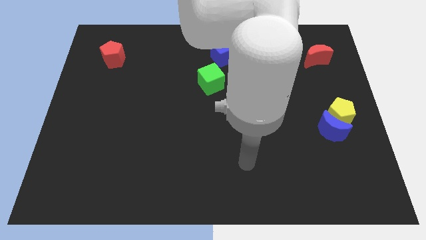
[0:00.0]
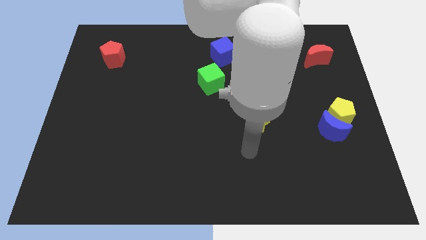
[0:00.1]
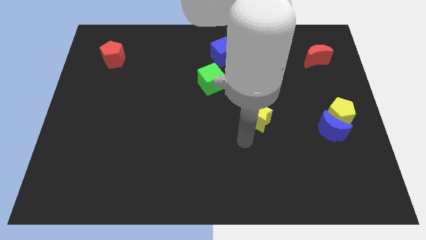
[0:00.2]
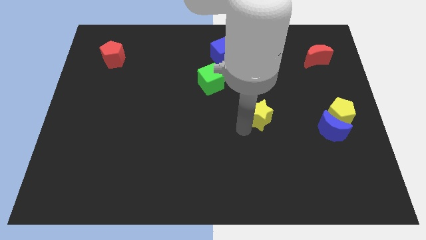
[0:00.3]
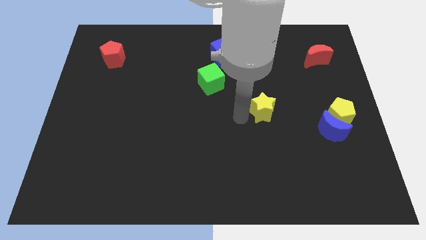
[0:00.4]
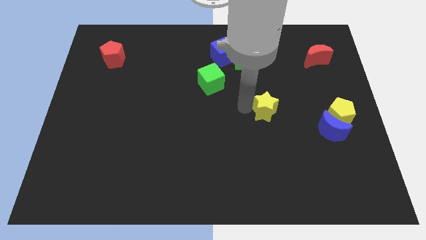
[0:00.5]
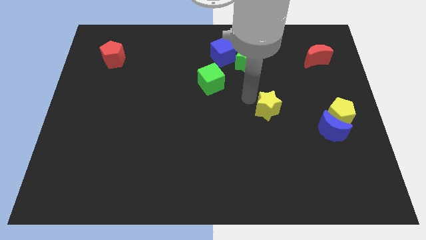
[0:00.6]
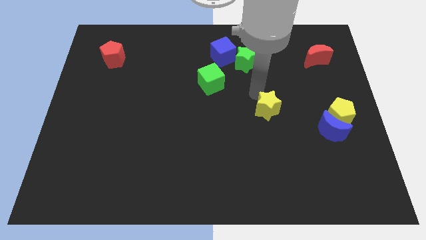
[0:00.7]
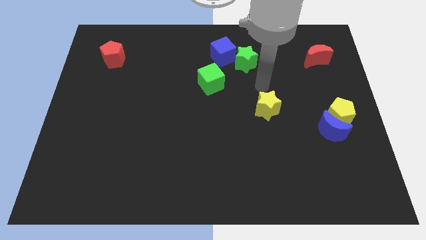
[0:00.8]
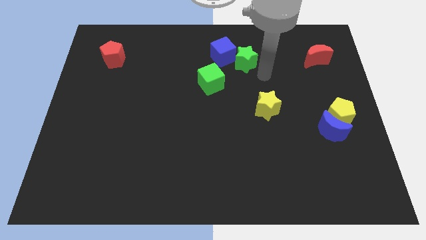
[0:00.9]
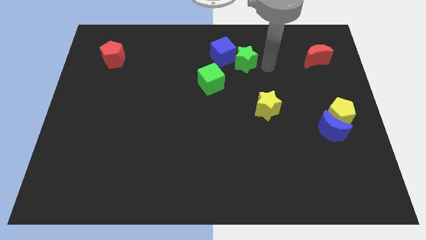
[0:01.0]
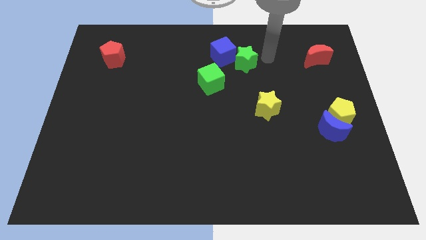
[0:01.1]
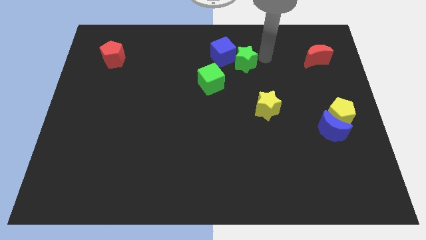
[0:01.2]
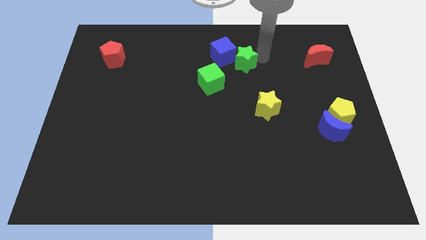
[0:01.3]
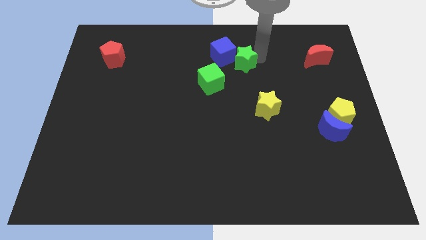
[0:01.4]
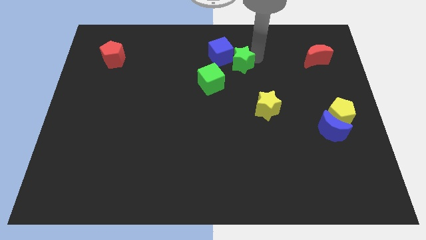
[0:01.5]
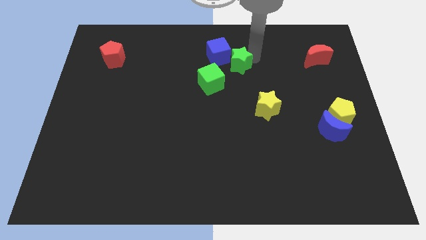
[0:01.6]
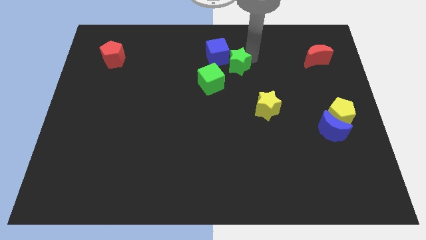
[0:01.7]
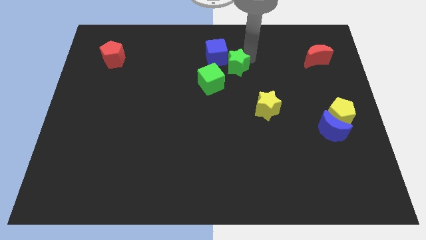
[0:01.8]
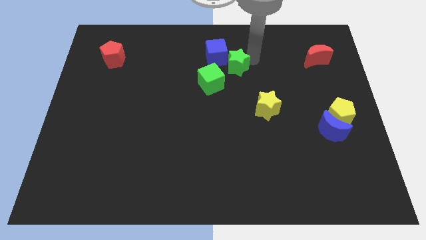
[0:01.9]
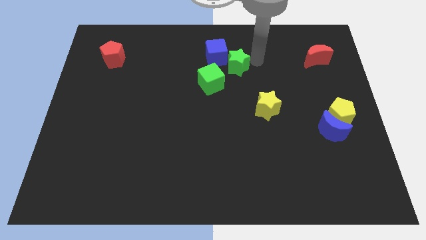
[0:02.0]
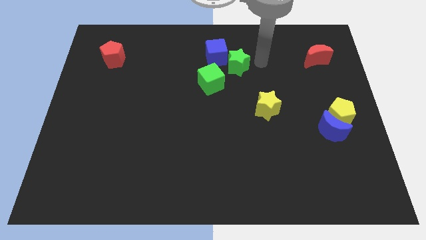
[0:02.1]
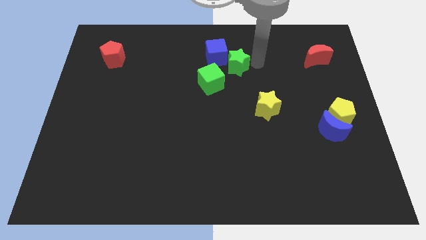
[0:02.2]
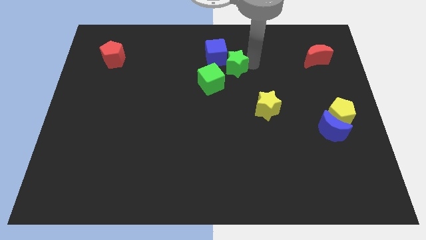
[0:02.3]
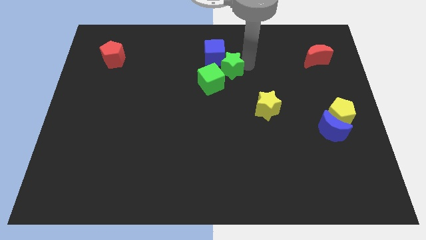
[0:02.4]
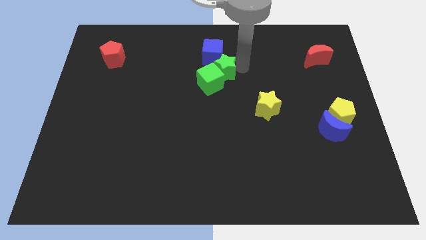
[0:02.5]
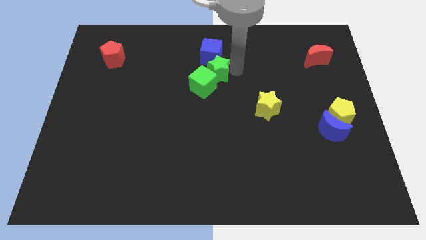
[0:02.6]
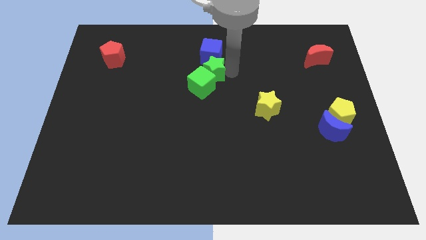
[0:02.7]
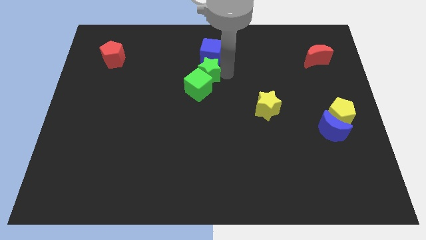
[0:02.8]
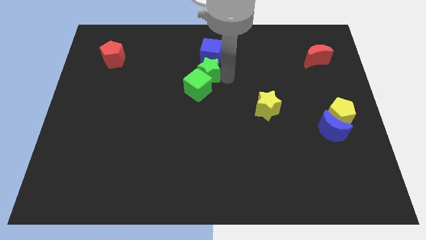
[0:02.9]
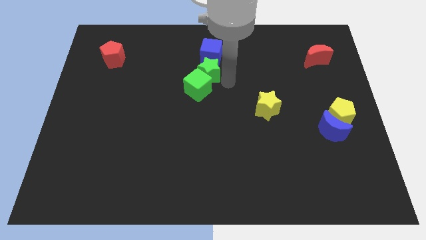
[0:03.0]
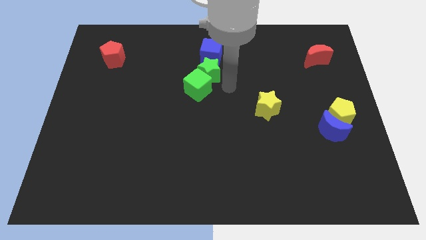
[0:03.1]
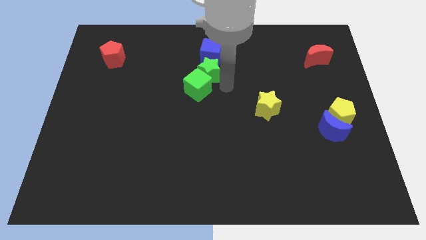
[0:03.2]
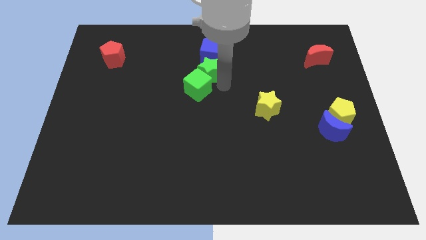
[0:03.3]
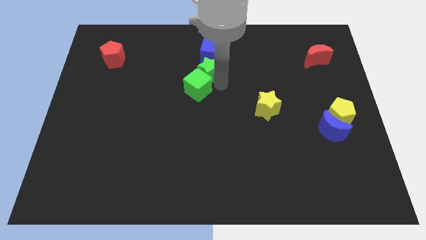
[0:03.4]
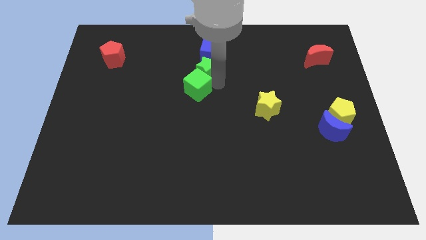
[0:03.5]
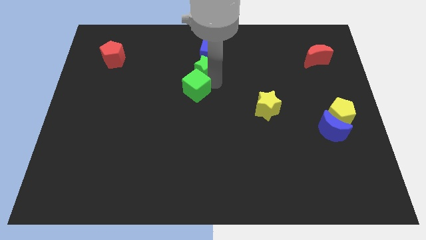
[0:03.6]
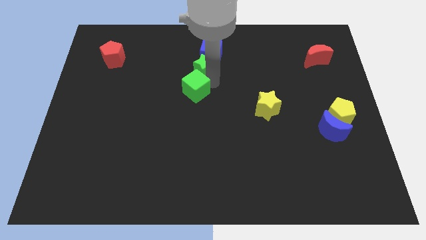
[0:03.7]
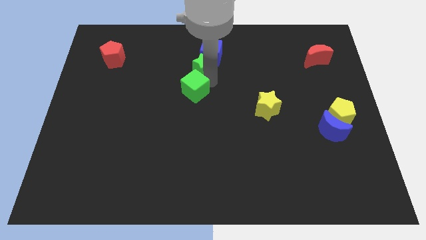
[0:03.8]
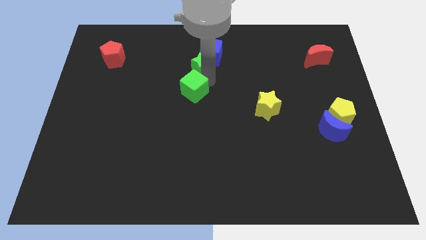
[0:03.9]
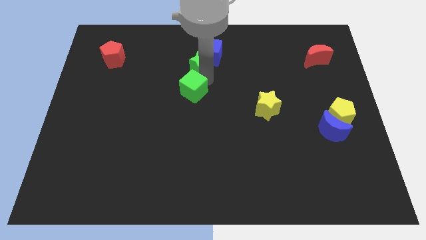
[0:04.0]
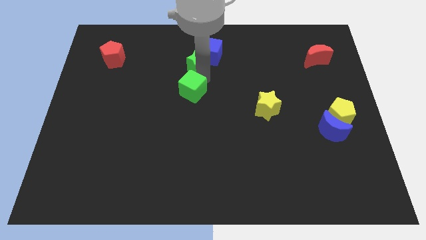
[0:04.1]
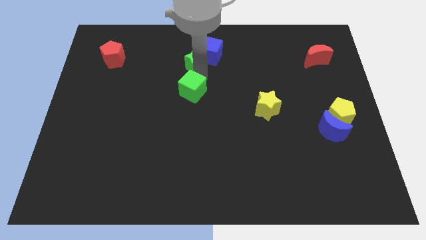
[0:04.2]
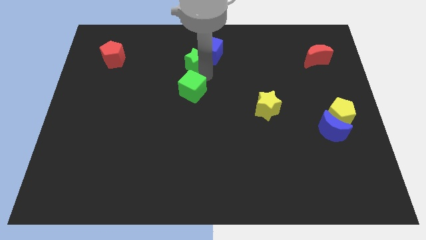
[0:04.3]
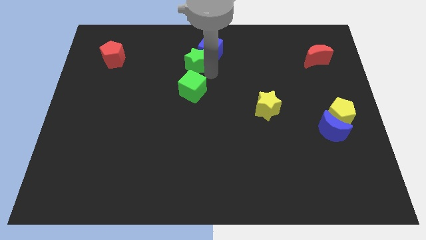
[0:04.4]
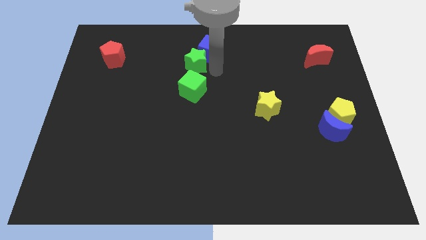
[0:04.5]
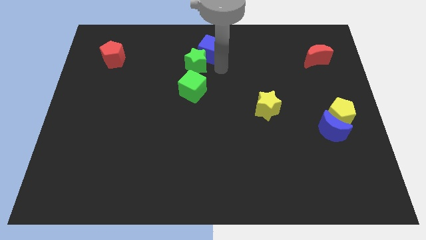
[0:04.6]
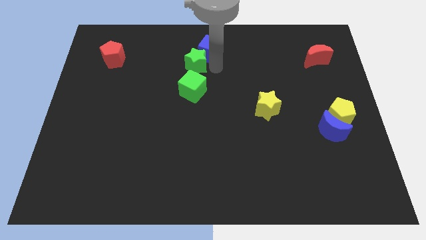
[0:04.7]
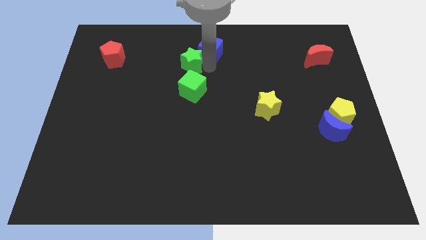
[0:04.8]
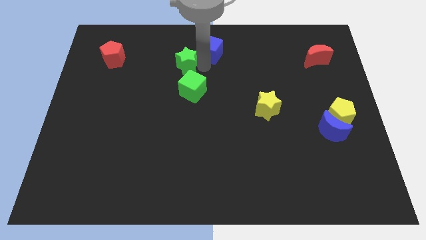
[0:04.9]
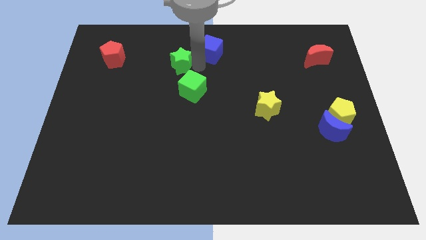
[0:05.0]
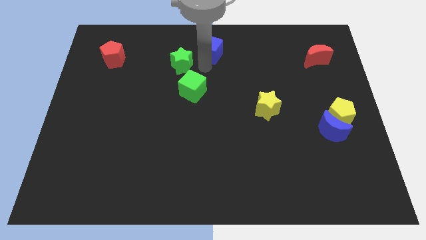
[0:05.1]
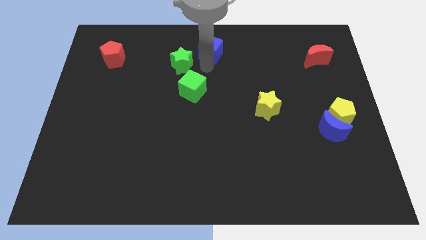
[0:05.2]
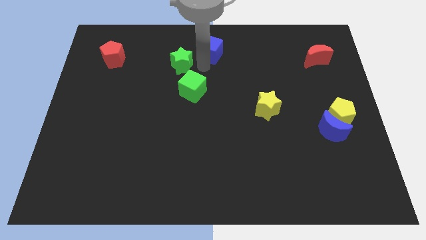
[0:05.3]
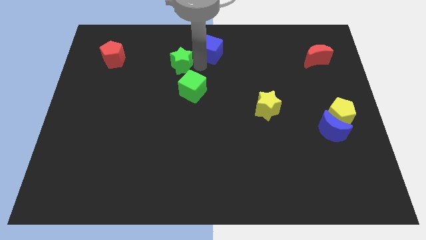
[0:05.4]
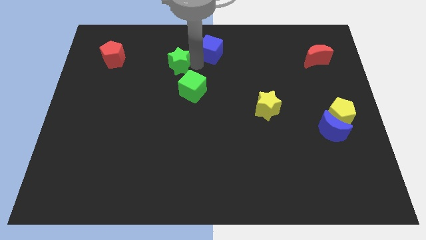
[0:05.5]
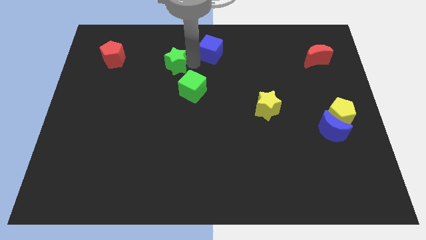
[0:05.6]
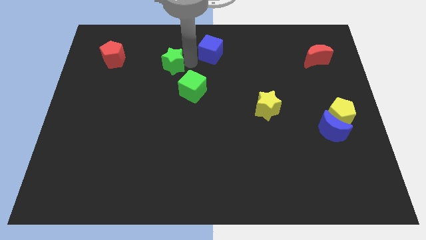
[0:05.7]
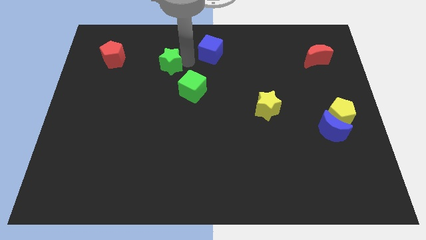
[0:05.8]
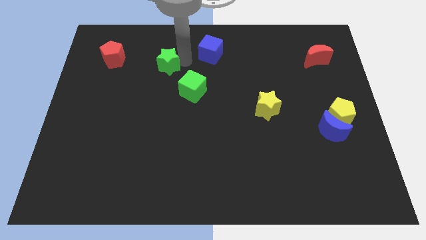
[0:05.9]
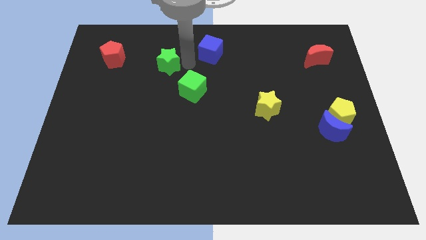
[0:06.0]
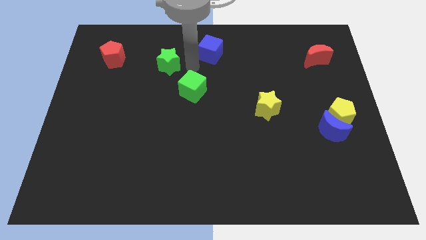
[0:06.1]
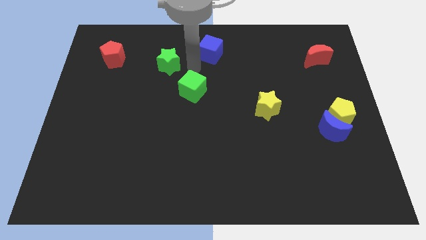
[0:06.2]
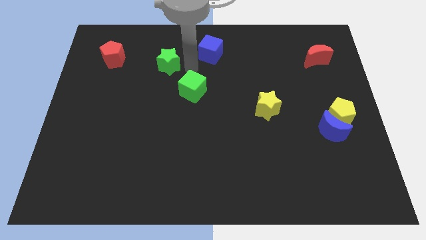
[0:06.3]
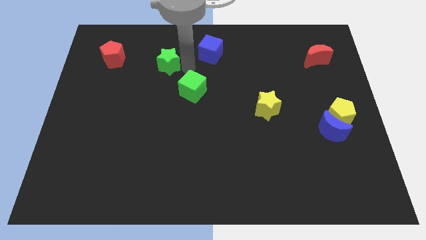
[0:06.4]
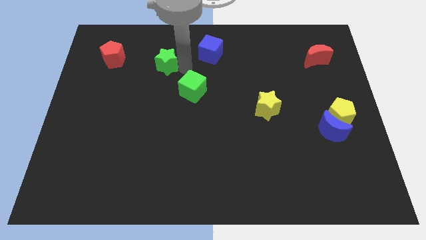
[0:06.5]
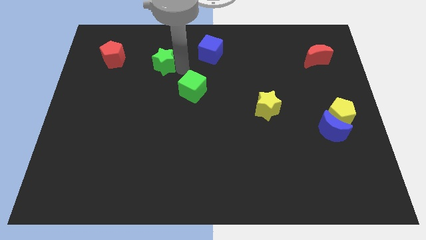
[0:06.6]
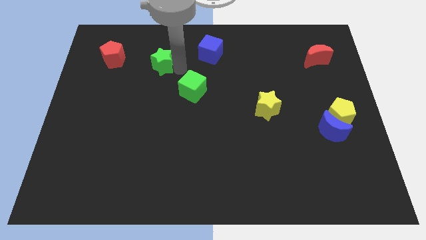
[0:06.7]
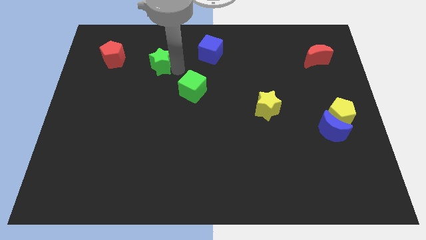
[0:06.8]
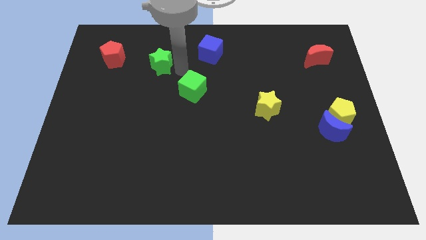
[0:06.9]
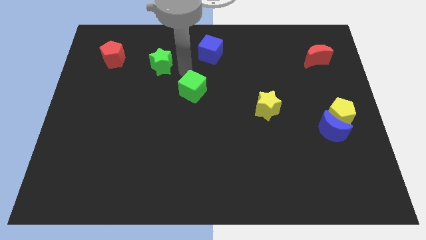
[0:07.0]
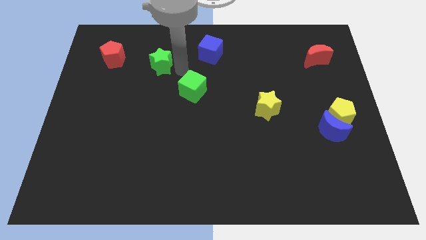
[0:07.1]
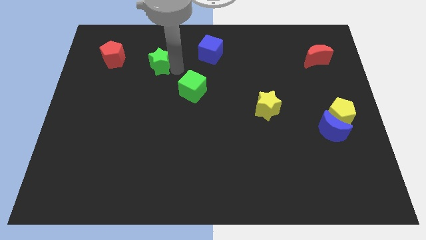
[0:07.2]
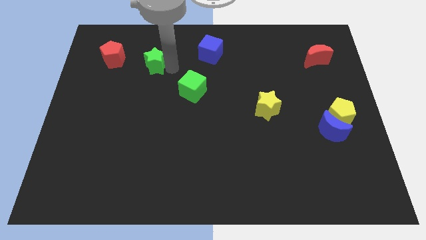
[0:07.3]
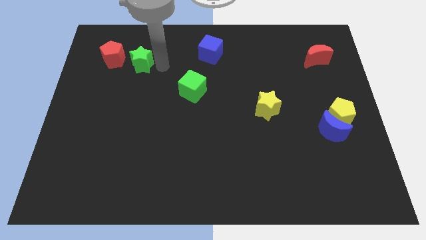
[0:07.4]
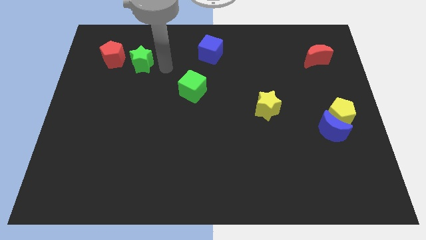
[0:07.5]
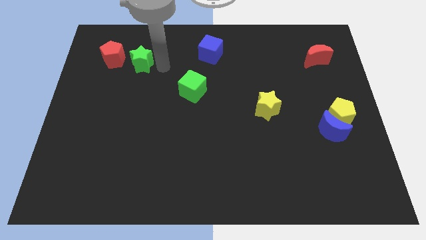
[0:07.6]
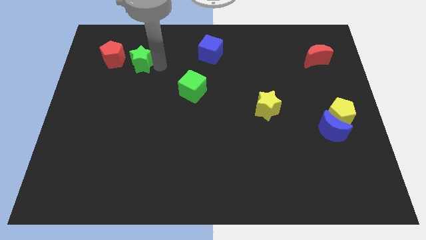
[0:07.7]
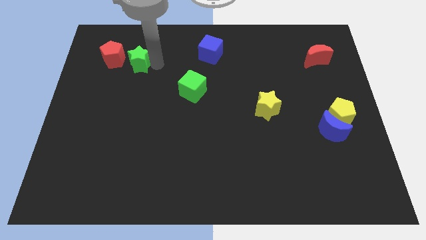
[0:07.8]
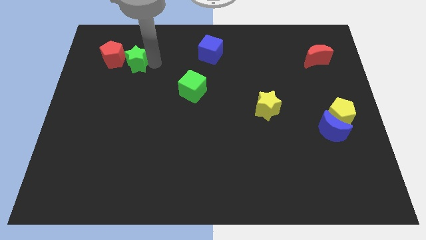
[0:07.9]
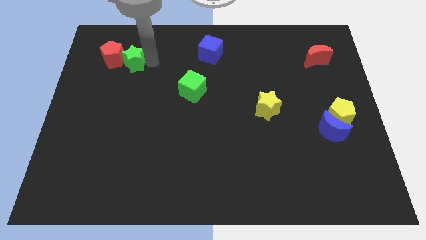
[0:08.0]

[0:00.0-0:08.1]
push the green star close to the red pentagon
